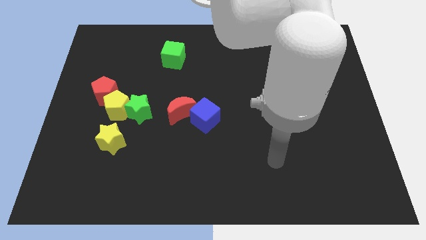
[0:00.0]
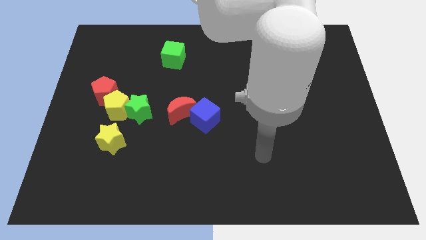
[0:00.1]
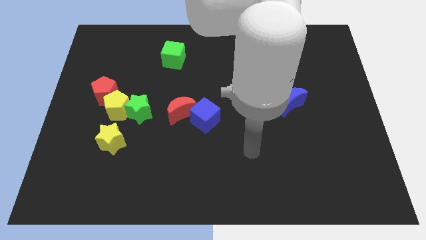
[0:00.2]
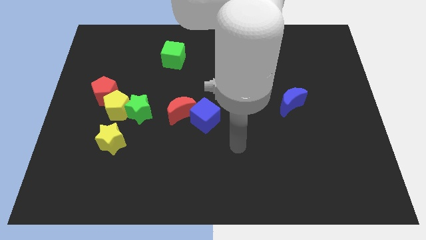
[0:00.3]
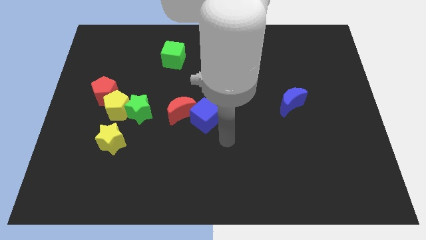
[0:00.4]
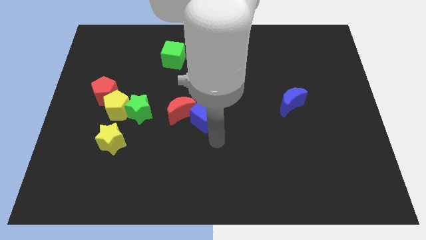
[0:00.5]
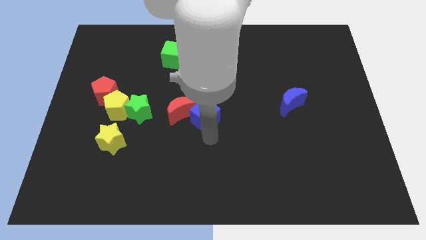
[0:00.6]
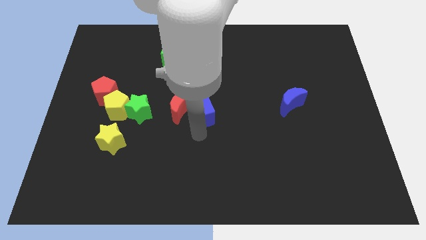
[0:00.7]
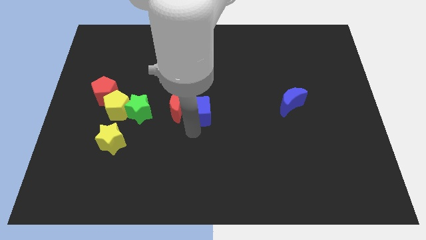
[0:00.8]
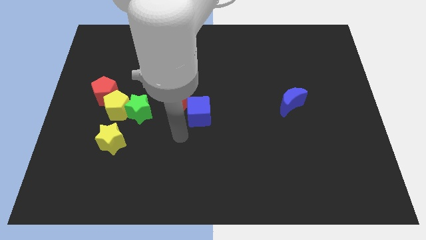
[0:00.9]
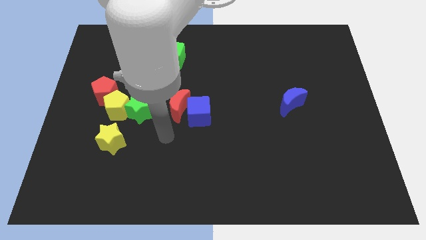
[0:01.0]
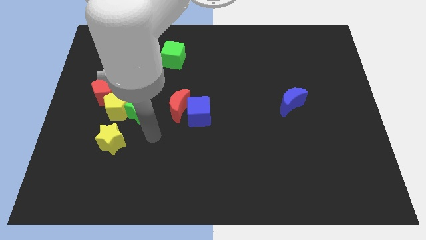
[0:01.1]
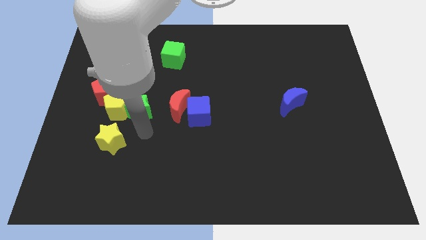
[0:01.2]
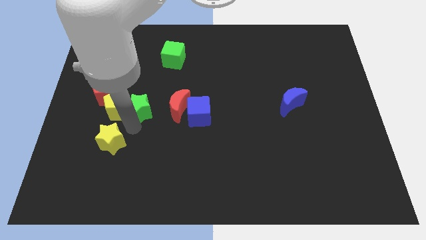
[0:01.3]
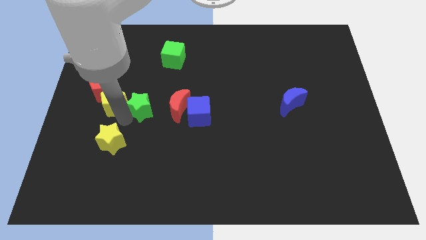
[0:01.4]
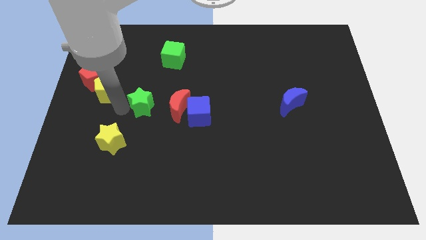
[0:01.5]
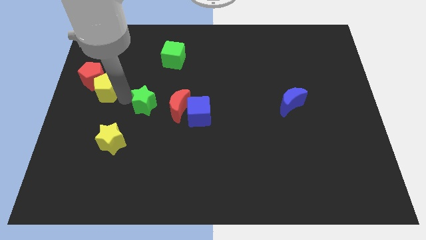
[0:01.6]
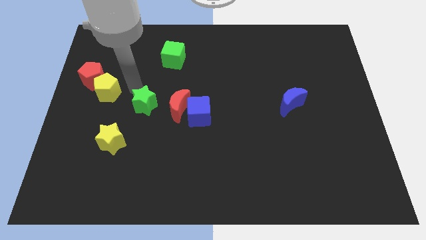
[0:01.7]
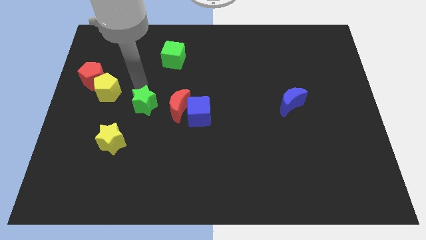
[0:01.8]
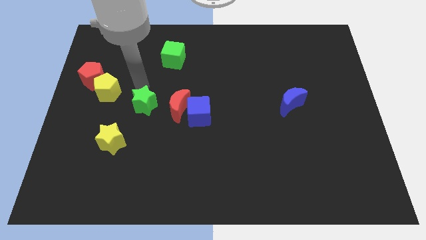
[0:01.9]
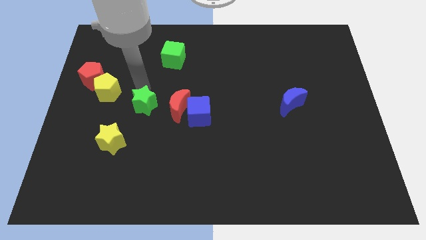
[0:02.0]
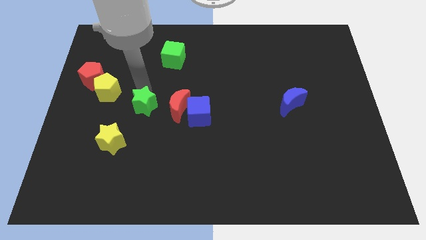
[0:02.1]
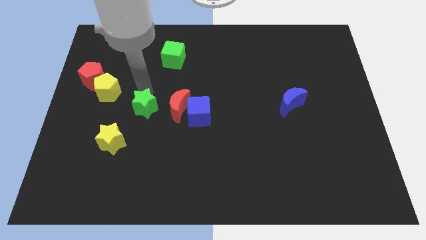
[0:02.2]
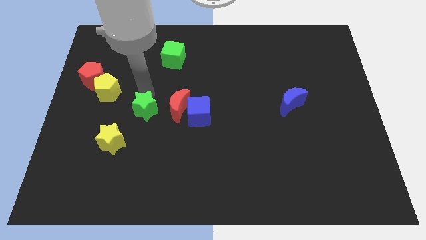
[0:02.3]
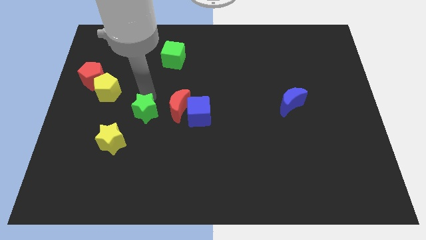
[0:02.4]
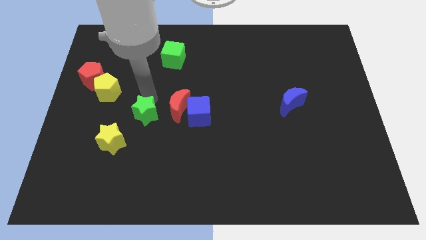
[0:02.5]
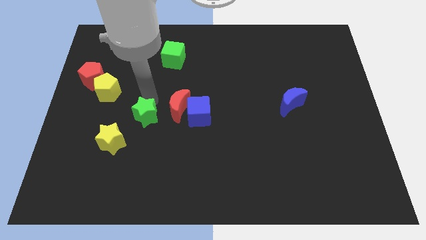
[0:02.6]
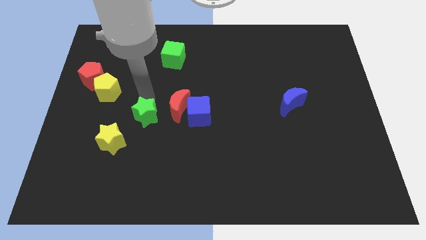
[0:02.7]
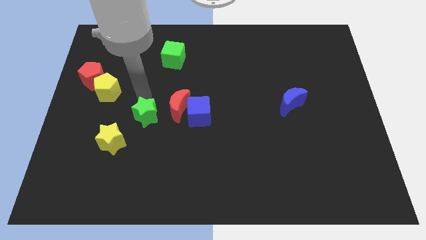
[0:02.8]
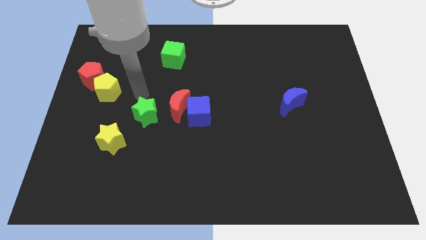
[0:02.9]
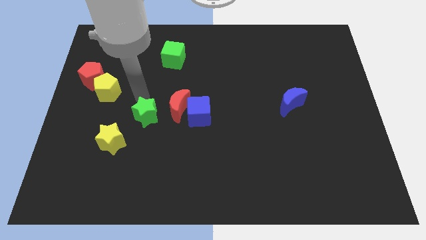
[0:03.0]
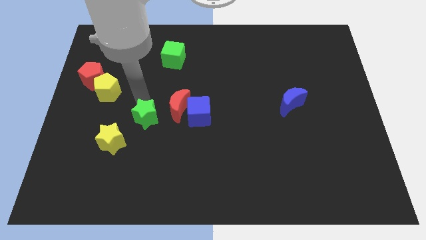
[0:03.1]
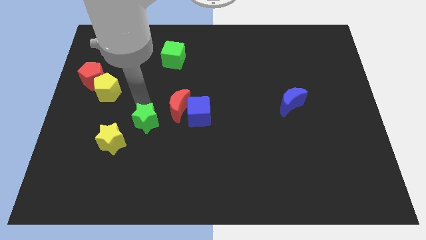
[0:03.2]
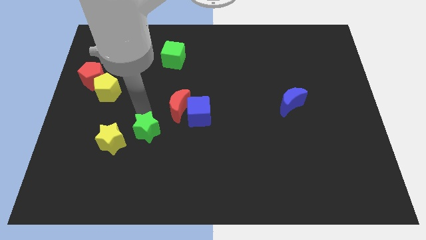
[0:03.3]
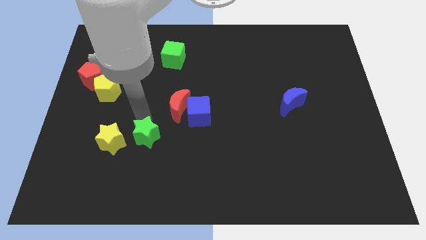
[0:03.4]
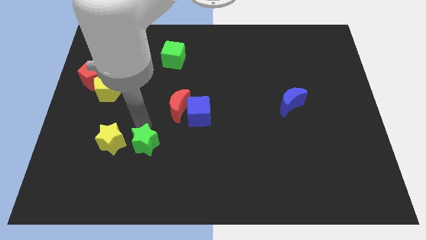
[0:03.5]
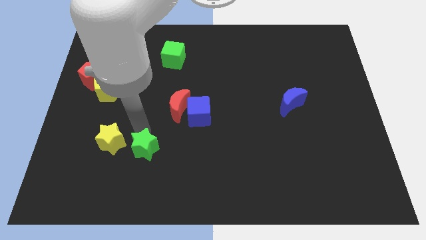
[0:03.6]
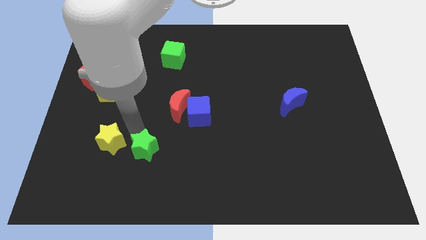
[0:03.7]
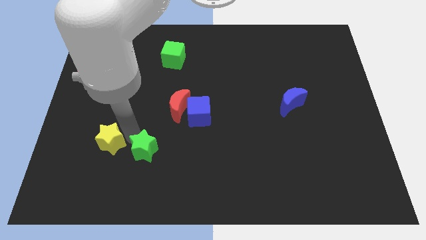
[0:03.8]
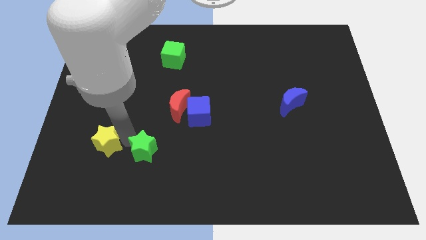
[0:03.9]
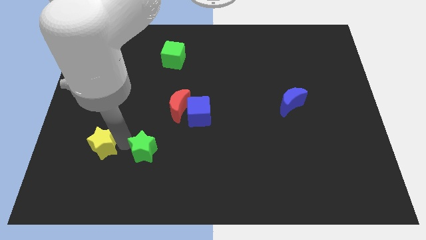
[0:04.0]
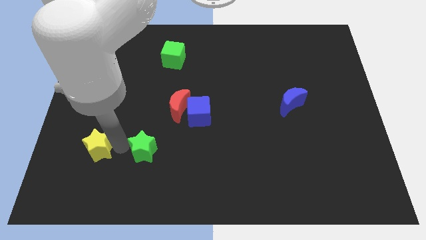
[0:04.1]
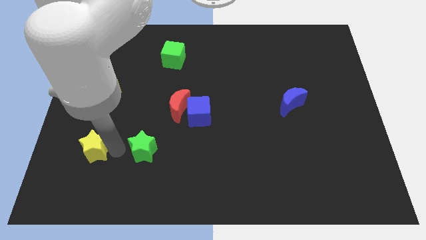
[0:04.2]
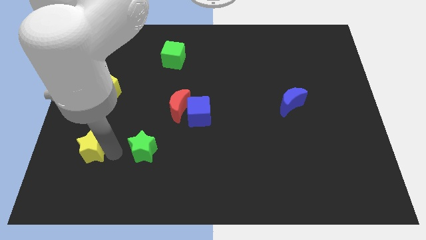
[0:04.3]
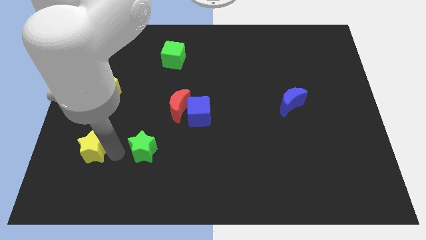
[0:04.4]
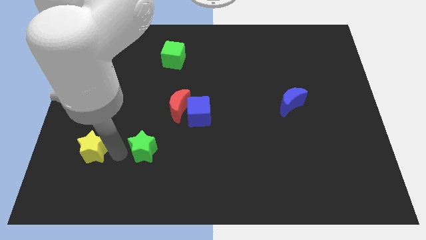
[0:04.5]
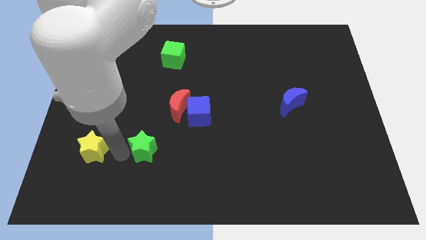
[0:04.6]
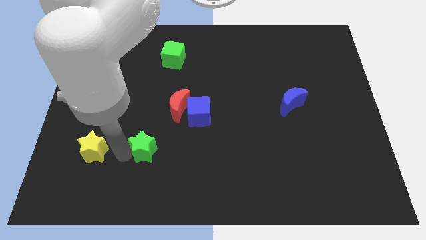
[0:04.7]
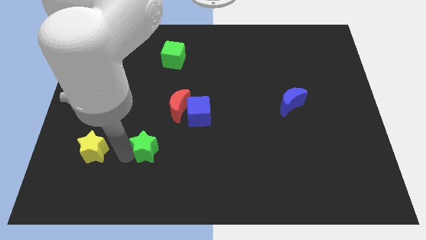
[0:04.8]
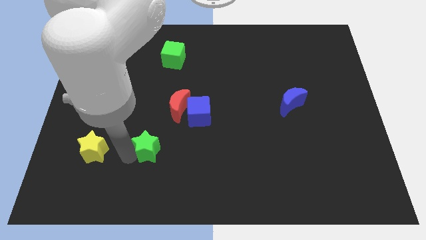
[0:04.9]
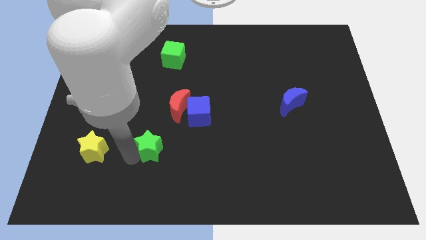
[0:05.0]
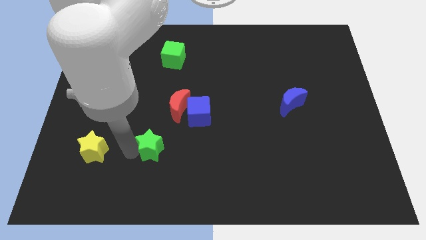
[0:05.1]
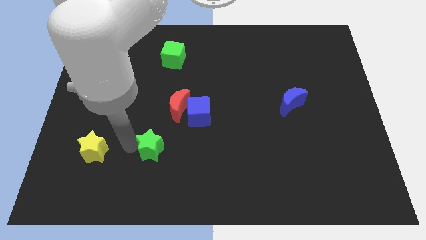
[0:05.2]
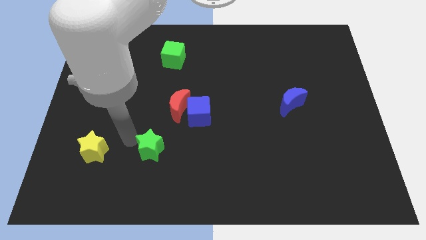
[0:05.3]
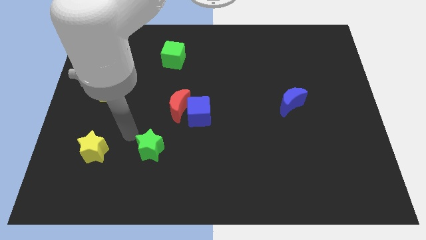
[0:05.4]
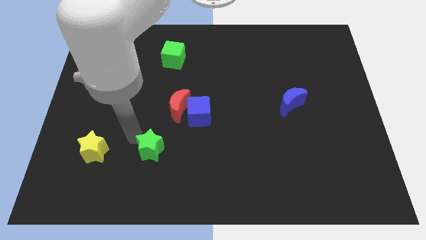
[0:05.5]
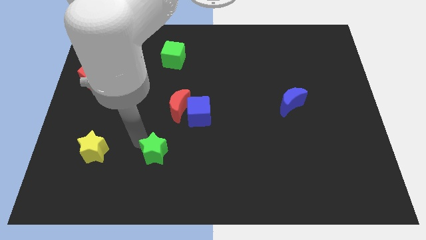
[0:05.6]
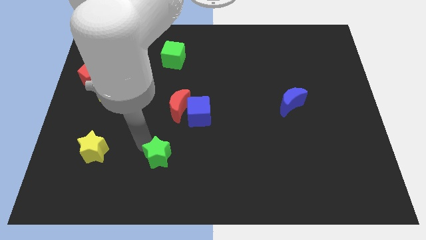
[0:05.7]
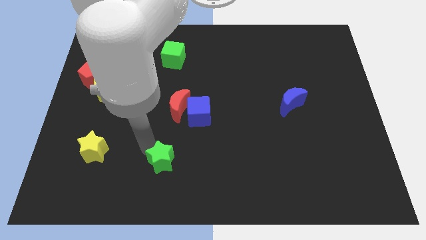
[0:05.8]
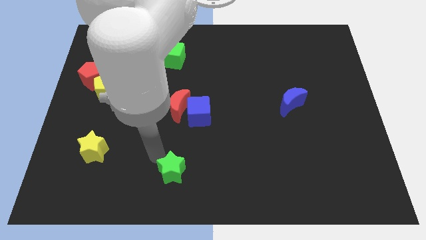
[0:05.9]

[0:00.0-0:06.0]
slide the green star to the bottom side
